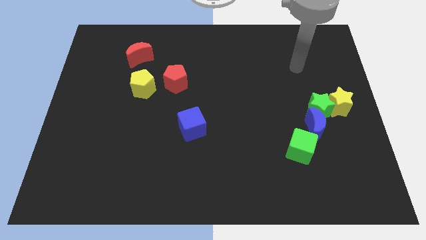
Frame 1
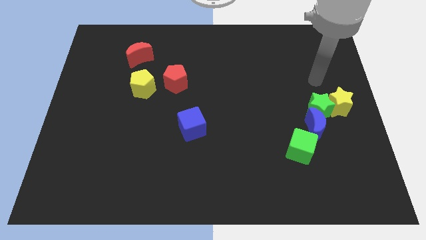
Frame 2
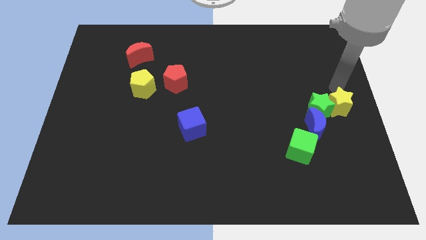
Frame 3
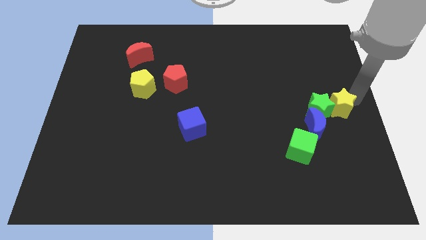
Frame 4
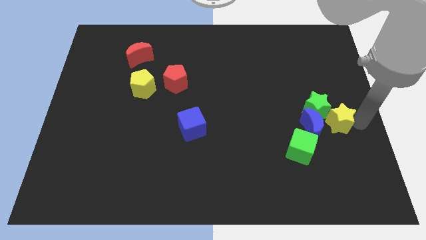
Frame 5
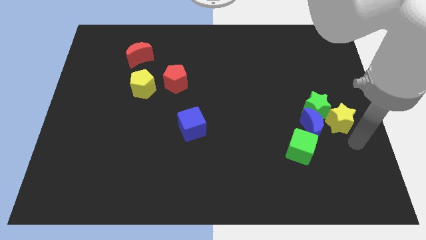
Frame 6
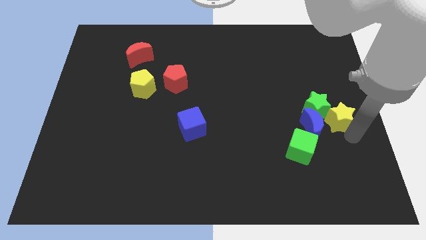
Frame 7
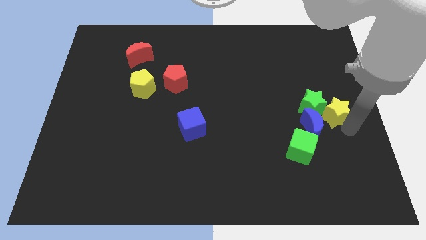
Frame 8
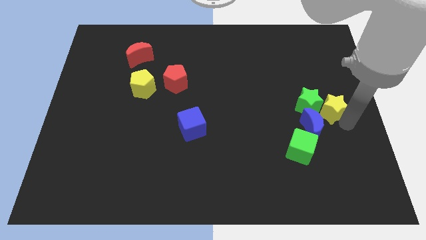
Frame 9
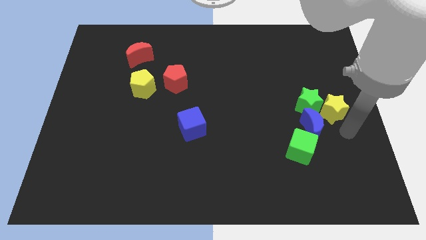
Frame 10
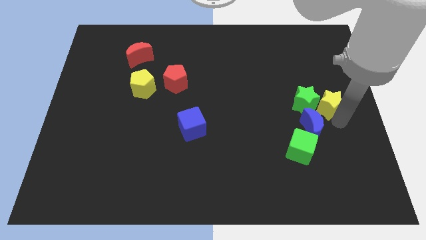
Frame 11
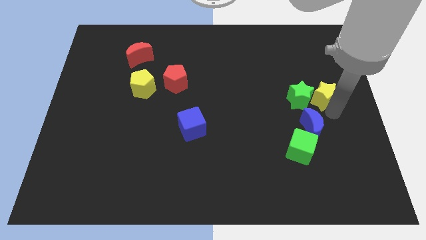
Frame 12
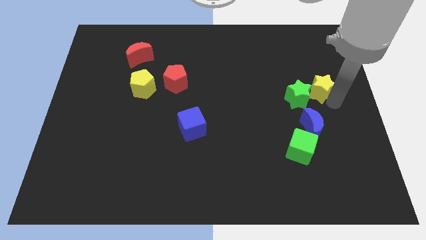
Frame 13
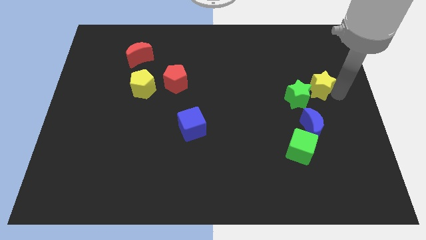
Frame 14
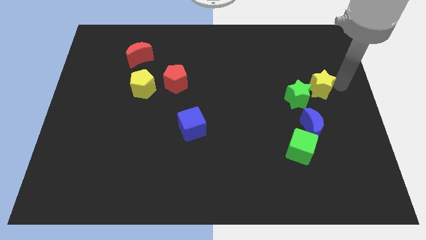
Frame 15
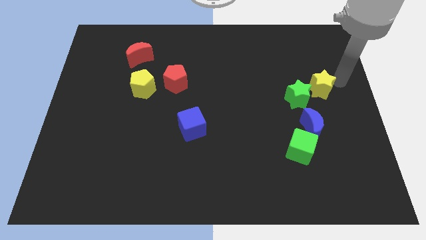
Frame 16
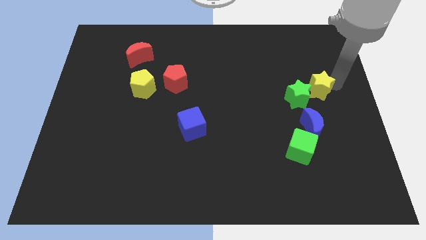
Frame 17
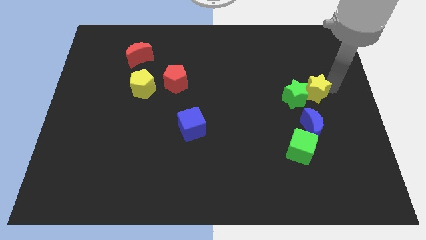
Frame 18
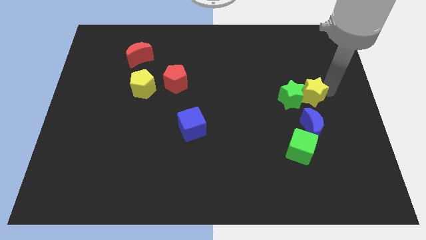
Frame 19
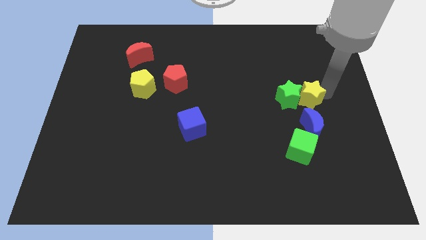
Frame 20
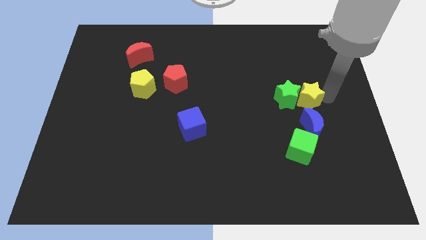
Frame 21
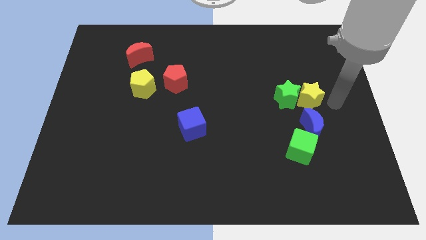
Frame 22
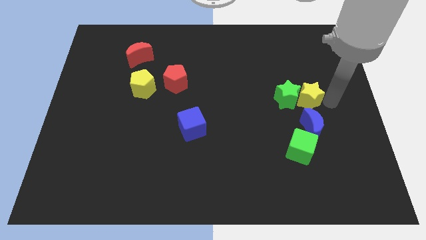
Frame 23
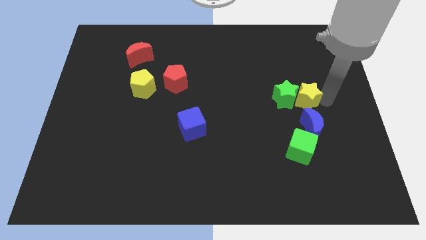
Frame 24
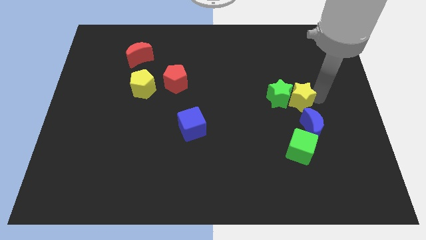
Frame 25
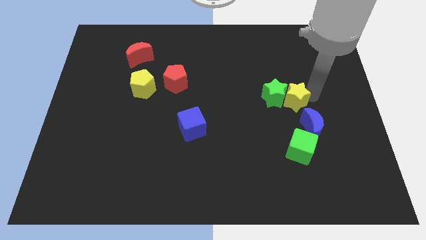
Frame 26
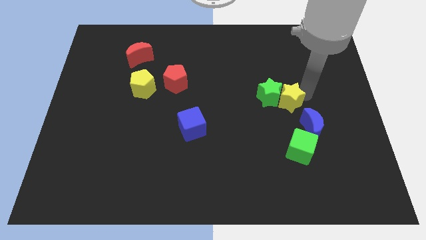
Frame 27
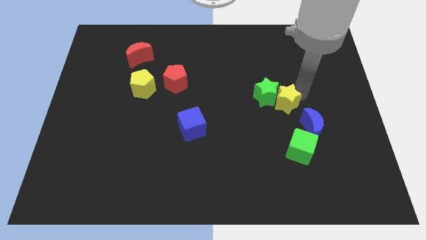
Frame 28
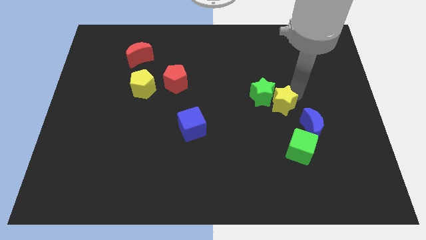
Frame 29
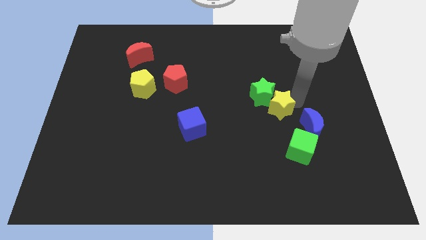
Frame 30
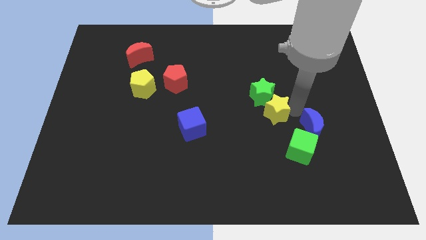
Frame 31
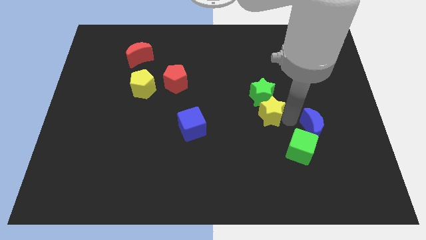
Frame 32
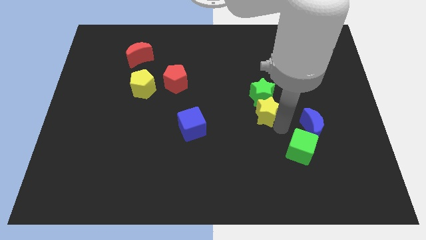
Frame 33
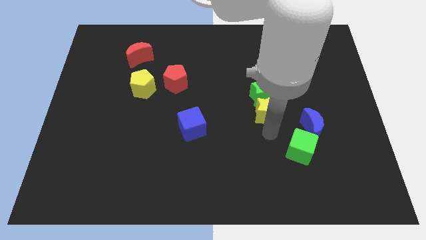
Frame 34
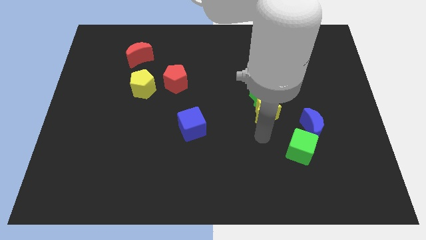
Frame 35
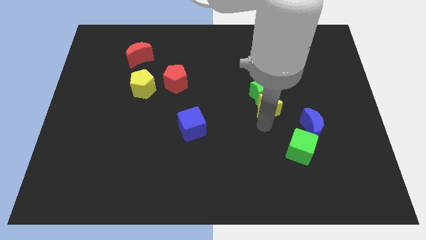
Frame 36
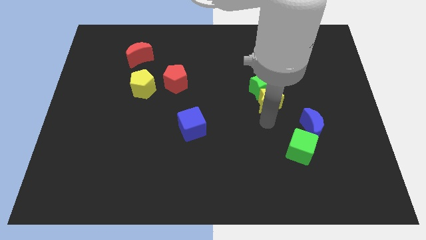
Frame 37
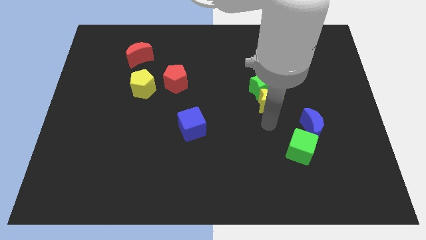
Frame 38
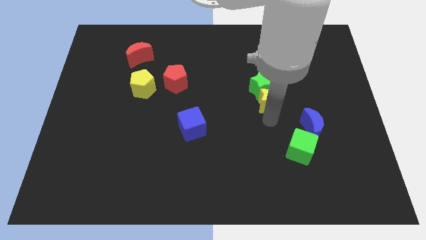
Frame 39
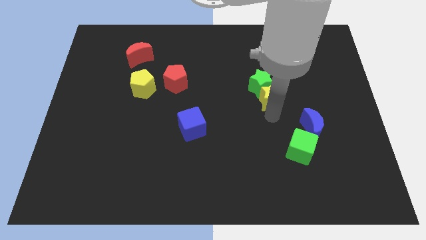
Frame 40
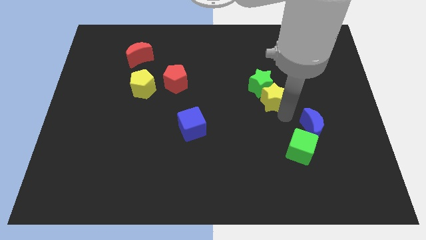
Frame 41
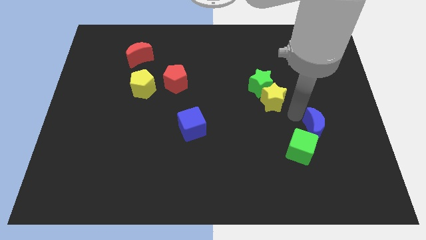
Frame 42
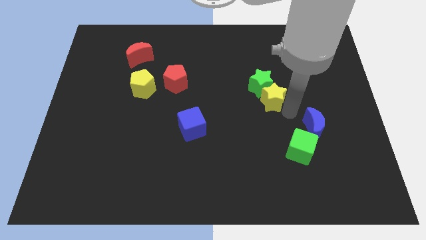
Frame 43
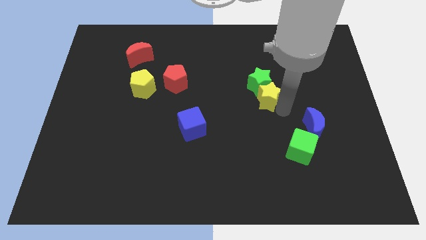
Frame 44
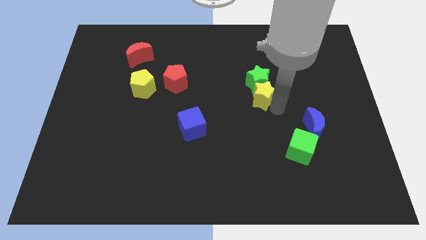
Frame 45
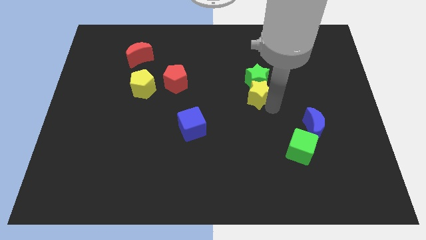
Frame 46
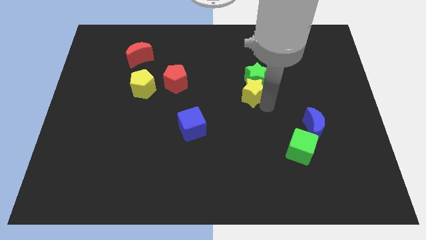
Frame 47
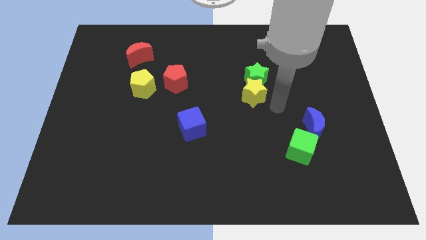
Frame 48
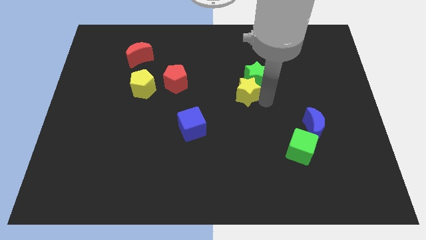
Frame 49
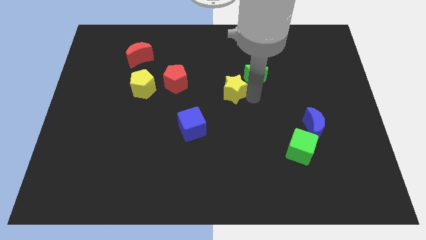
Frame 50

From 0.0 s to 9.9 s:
push the yellow star right of the red pentagon

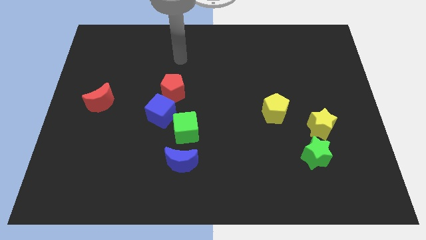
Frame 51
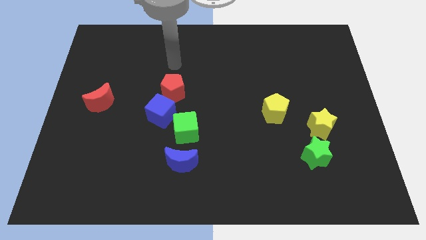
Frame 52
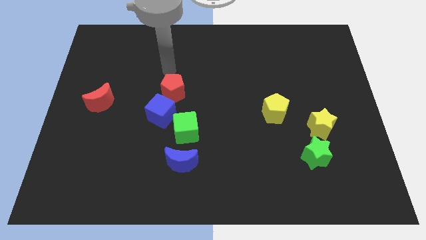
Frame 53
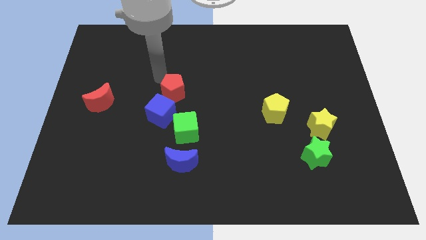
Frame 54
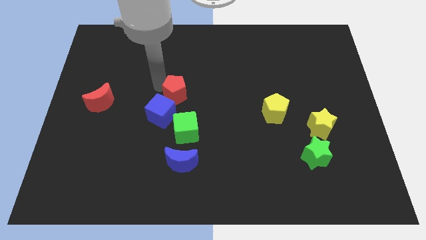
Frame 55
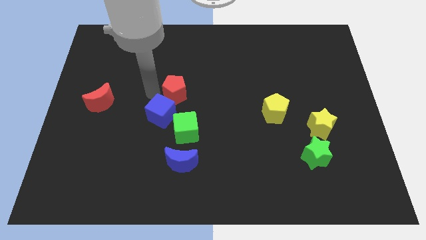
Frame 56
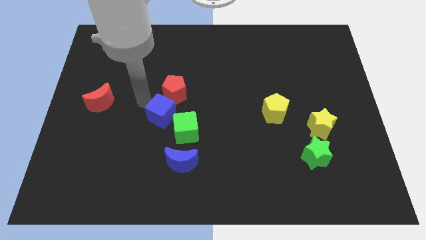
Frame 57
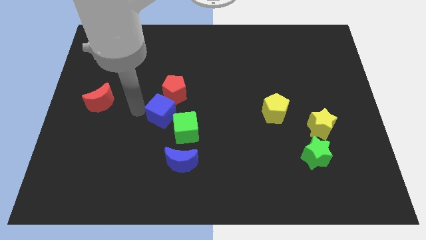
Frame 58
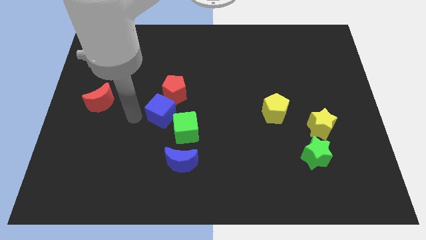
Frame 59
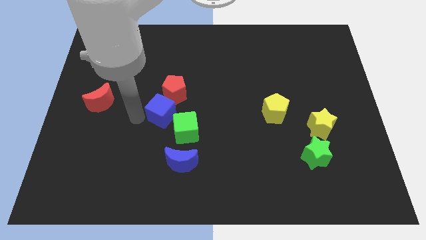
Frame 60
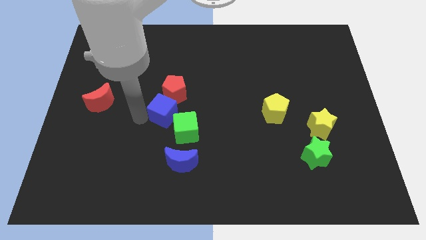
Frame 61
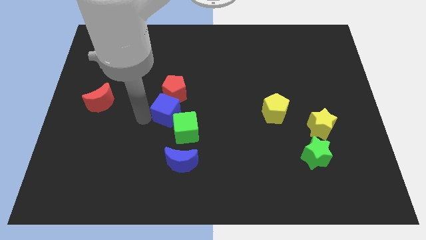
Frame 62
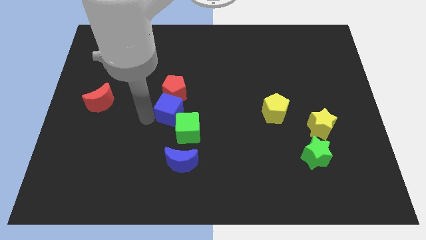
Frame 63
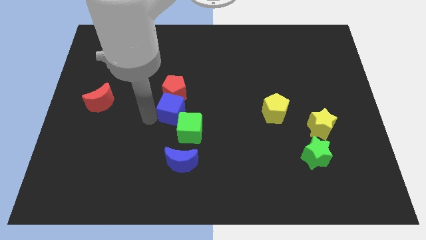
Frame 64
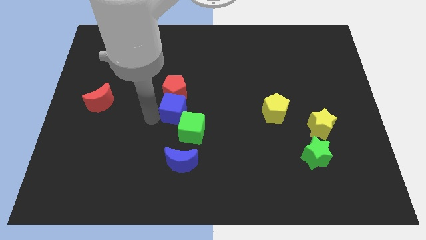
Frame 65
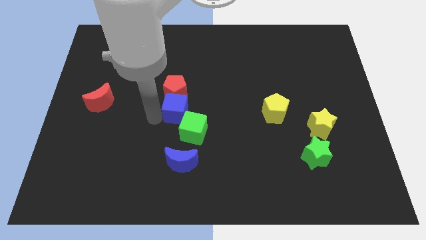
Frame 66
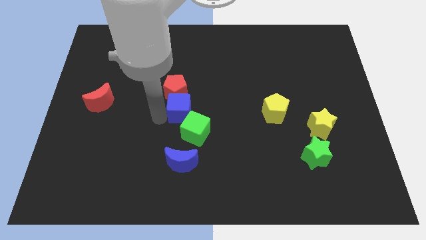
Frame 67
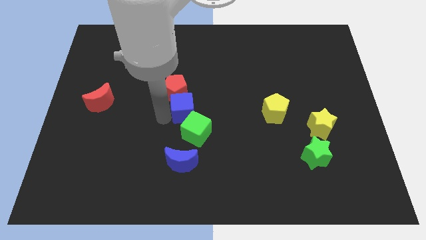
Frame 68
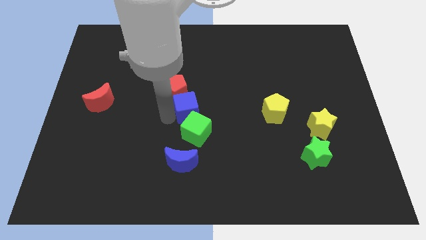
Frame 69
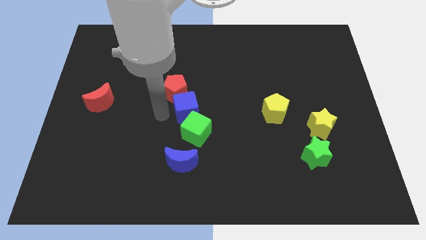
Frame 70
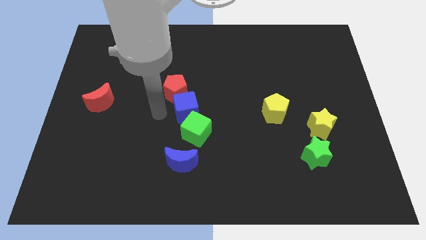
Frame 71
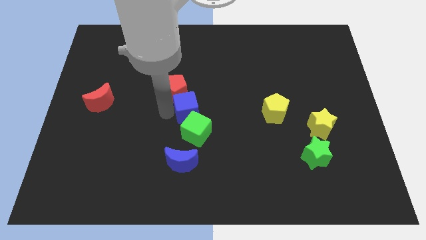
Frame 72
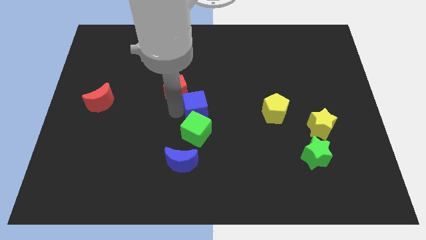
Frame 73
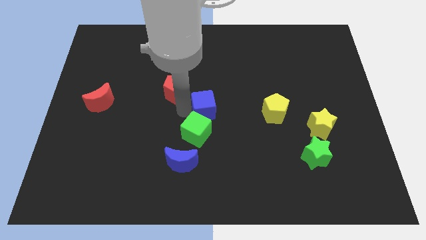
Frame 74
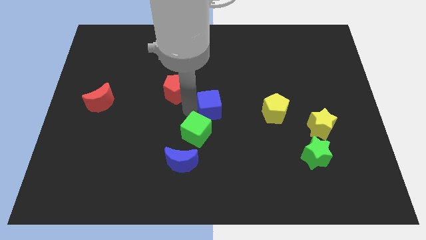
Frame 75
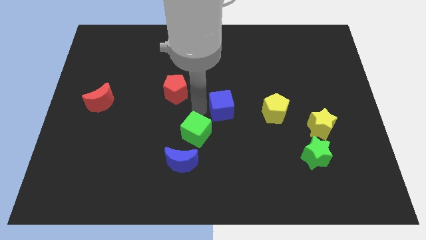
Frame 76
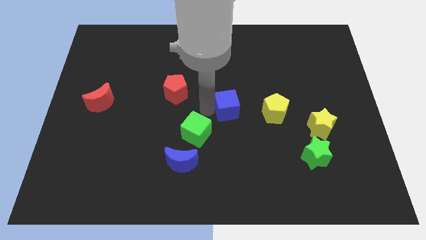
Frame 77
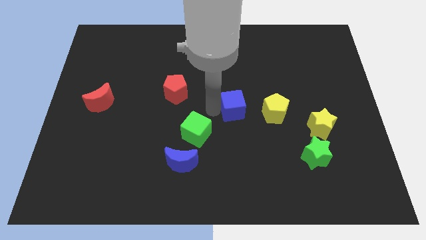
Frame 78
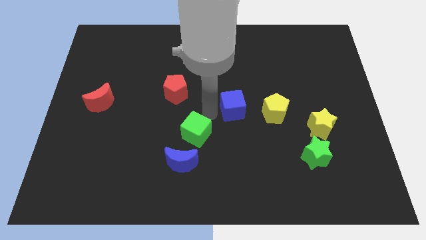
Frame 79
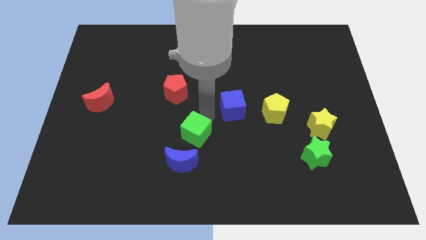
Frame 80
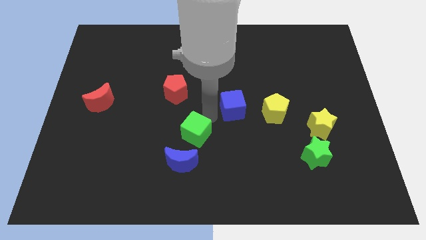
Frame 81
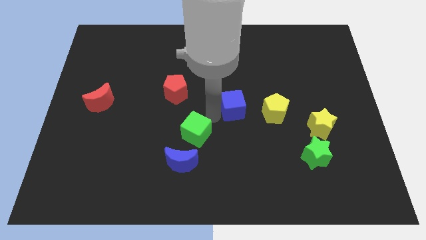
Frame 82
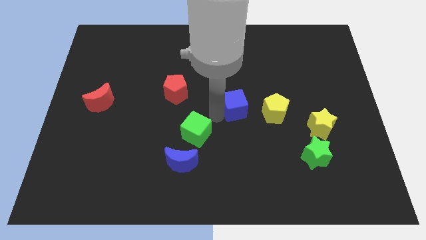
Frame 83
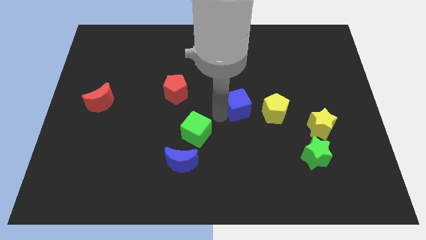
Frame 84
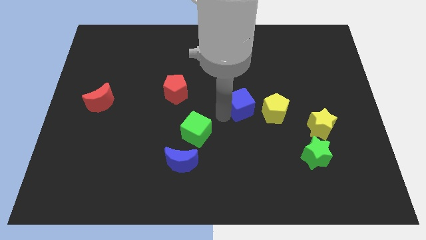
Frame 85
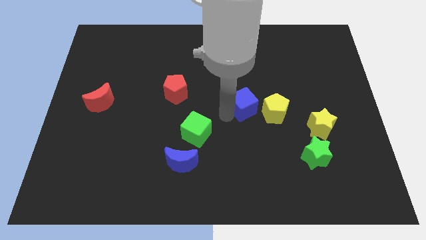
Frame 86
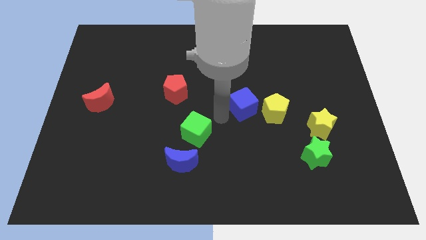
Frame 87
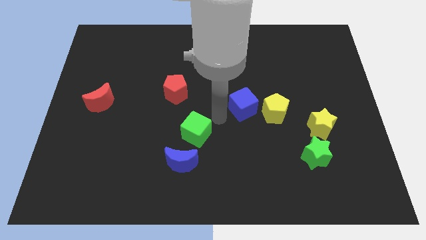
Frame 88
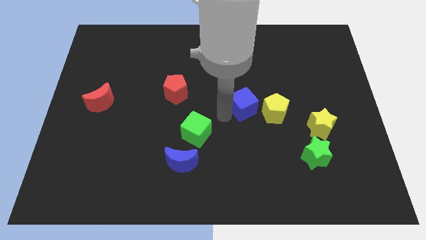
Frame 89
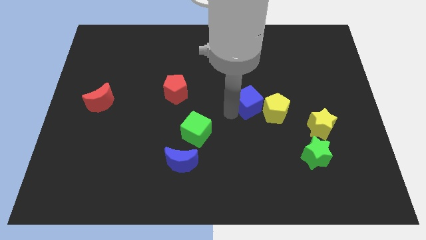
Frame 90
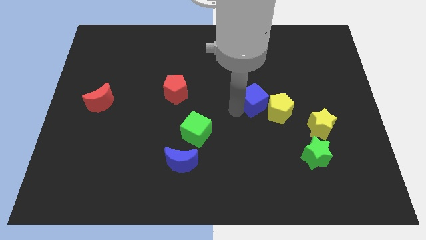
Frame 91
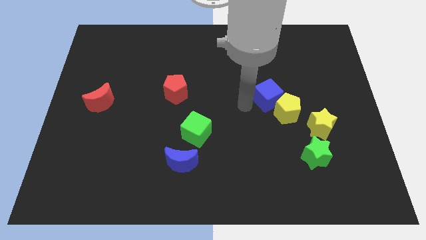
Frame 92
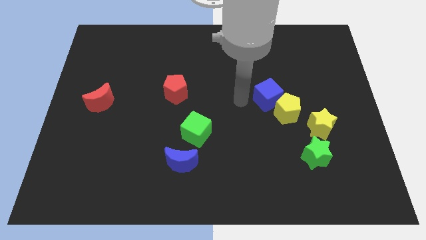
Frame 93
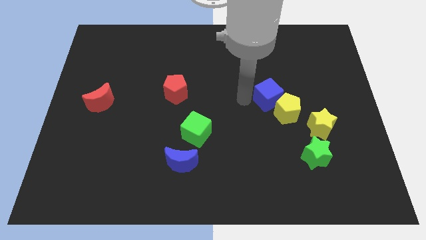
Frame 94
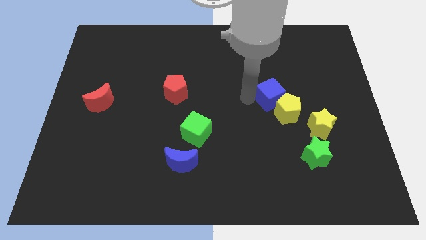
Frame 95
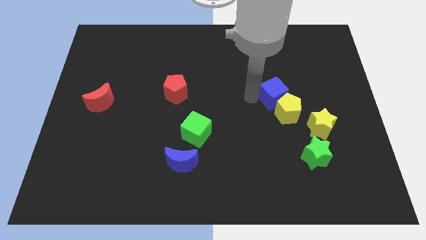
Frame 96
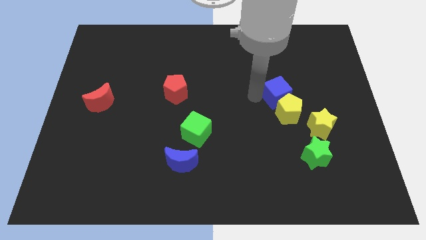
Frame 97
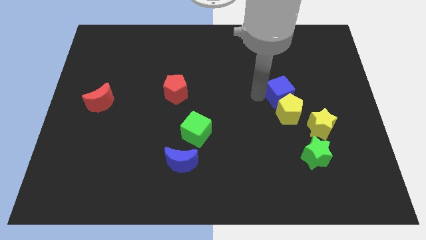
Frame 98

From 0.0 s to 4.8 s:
slide the blue cube to the top right of the yellow pentagon
